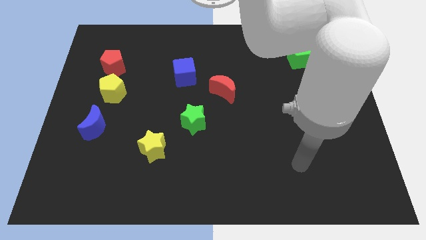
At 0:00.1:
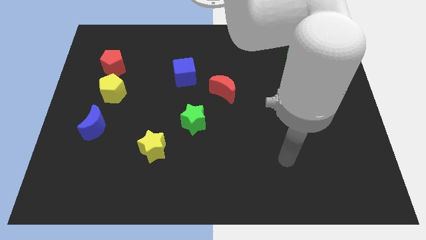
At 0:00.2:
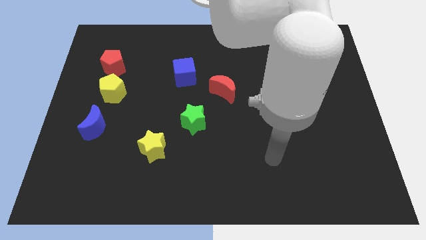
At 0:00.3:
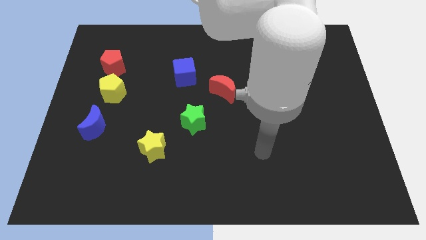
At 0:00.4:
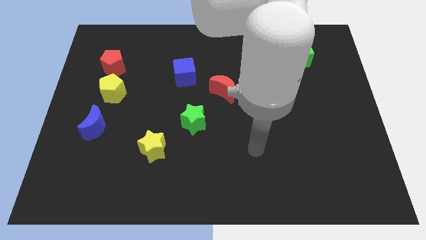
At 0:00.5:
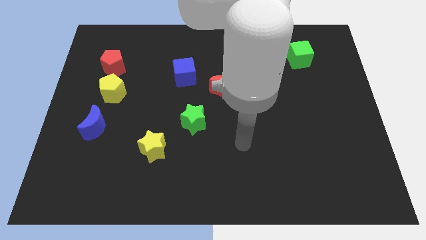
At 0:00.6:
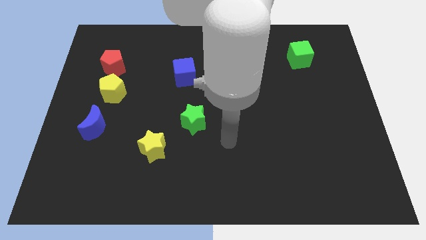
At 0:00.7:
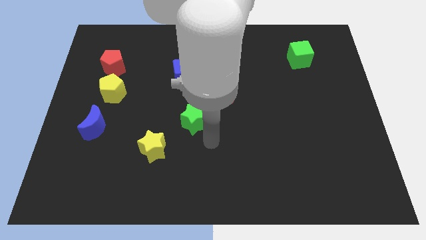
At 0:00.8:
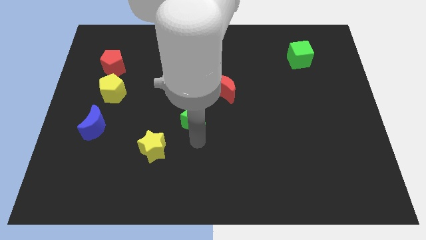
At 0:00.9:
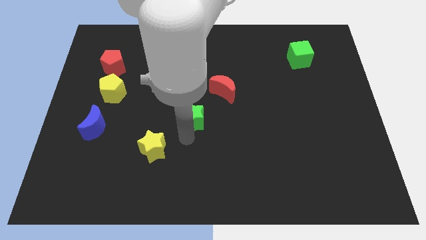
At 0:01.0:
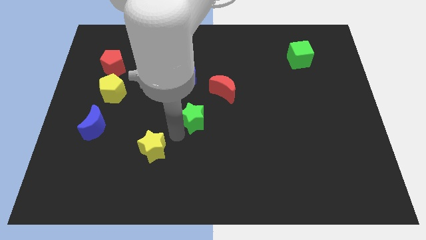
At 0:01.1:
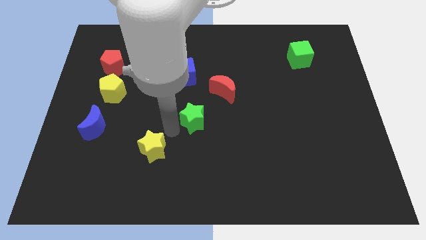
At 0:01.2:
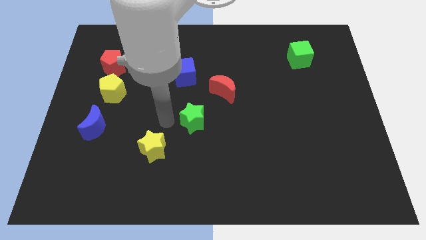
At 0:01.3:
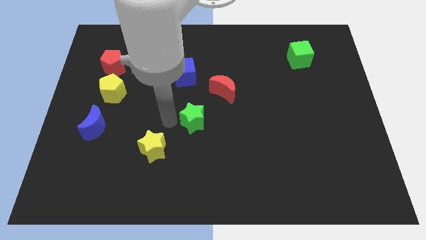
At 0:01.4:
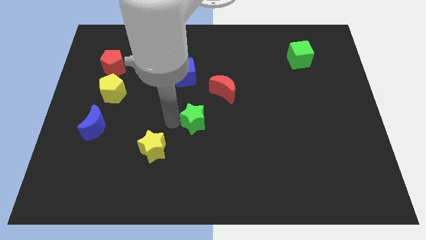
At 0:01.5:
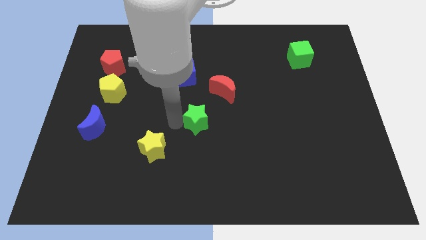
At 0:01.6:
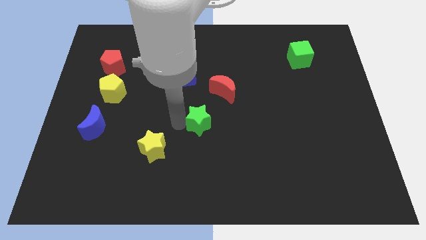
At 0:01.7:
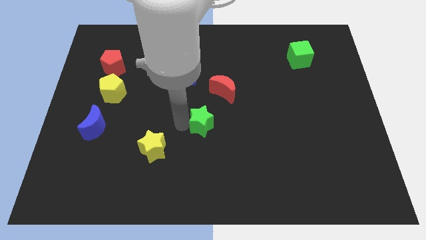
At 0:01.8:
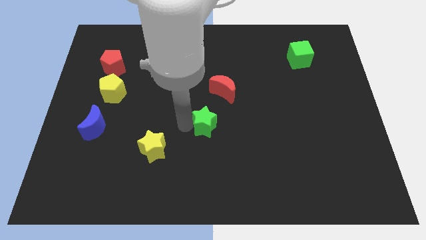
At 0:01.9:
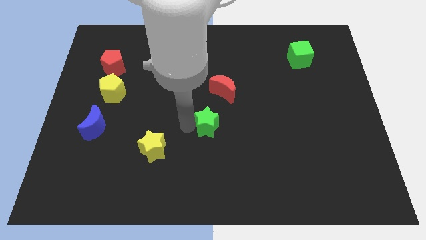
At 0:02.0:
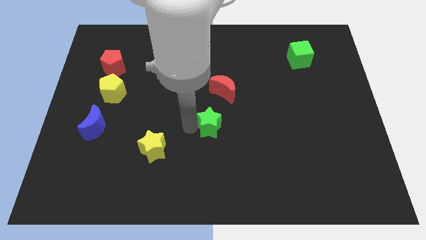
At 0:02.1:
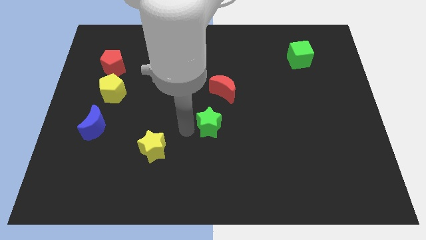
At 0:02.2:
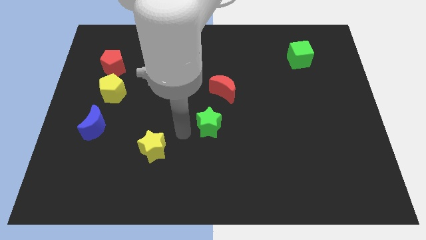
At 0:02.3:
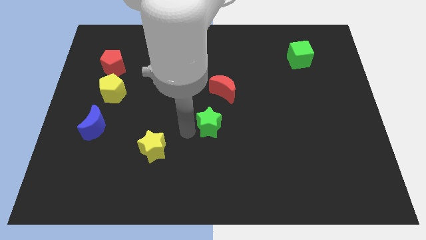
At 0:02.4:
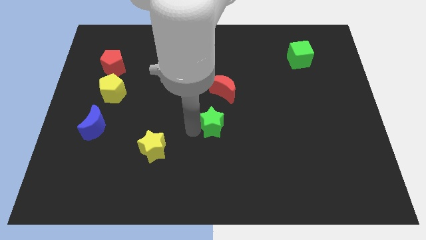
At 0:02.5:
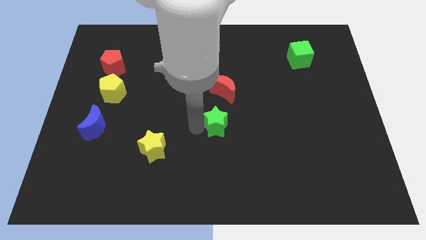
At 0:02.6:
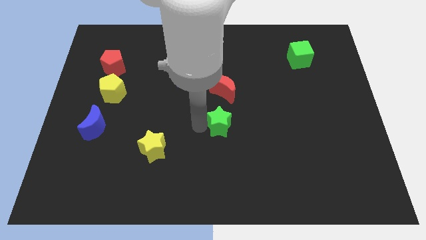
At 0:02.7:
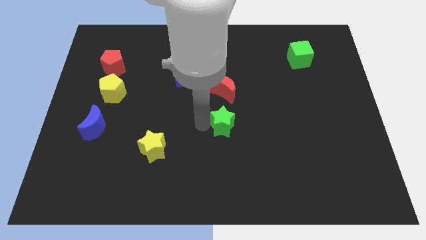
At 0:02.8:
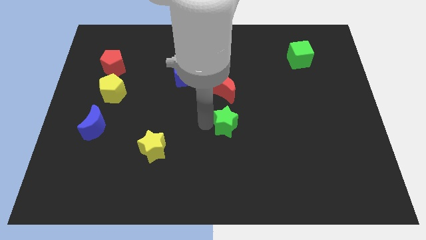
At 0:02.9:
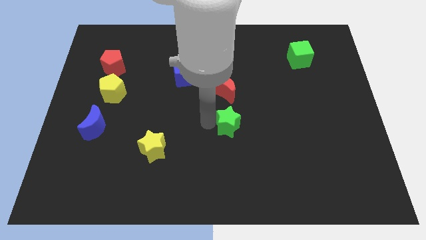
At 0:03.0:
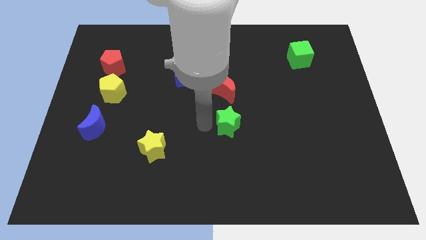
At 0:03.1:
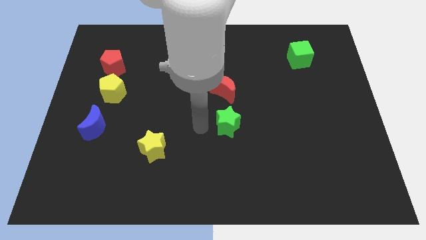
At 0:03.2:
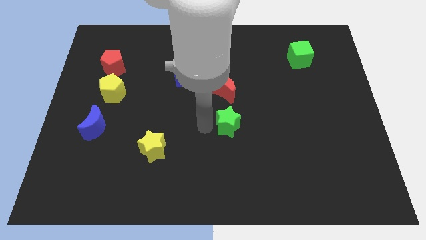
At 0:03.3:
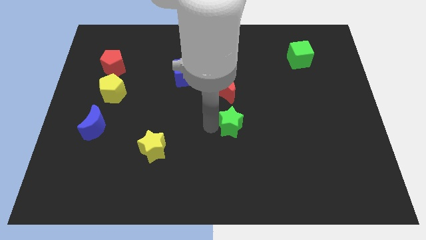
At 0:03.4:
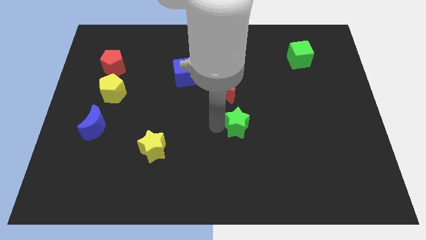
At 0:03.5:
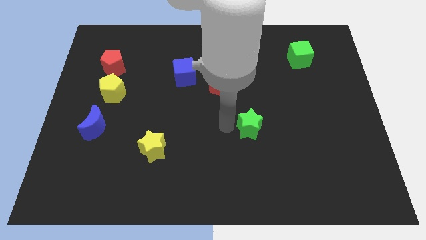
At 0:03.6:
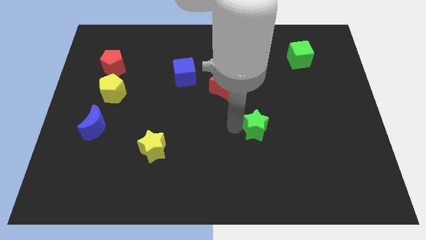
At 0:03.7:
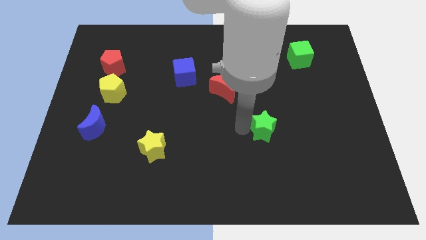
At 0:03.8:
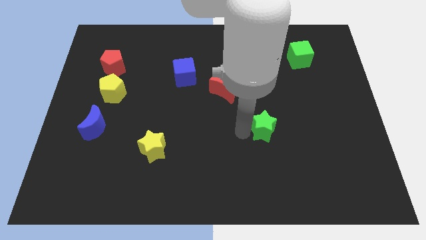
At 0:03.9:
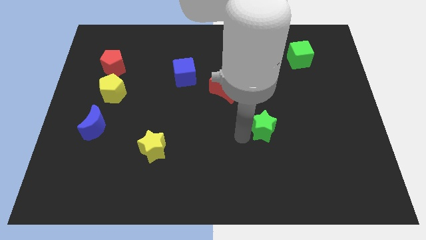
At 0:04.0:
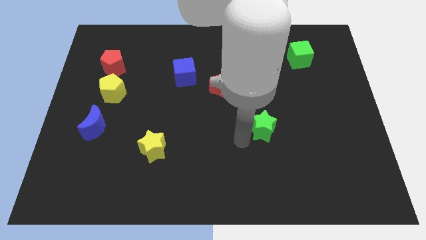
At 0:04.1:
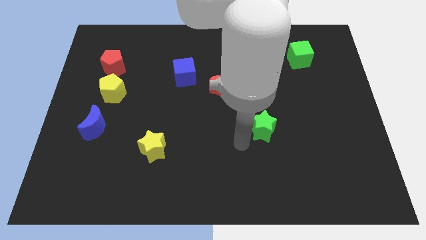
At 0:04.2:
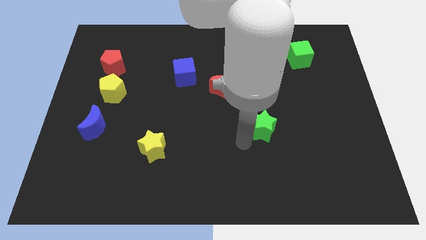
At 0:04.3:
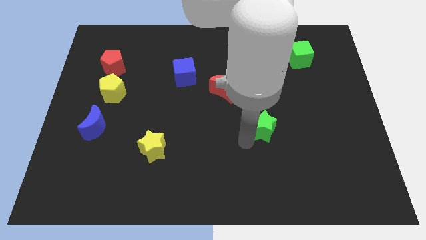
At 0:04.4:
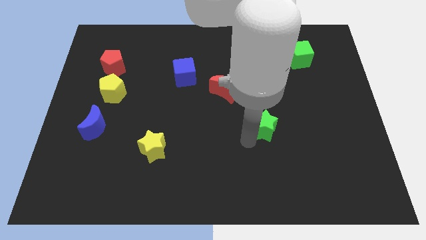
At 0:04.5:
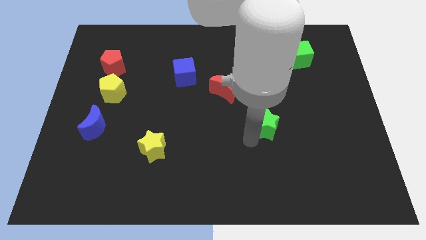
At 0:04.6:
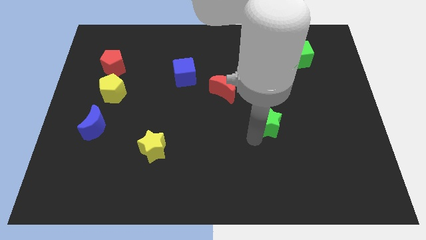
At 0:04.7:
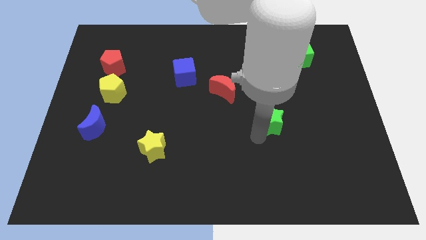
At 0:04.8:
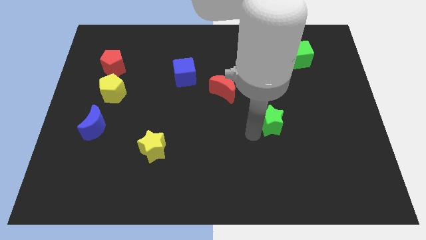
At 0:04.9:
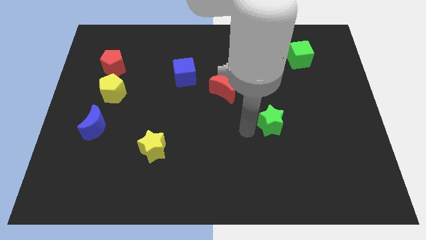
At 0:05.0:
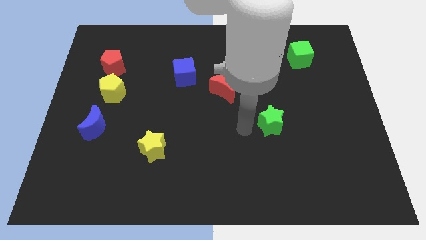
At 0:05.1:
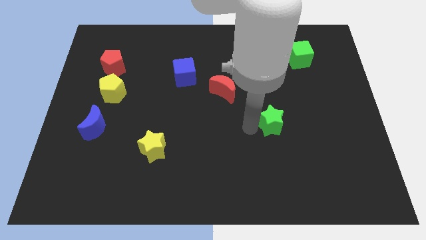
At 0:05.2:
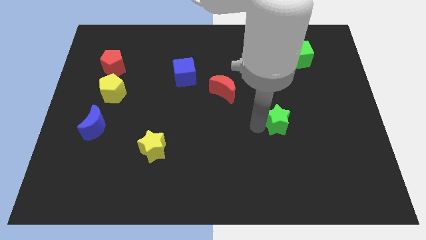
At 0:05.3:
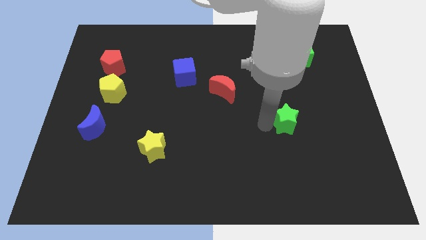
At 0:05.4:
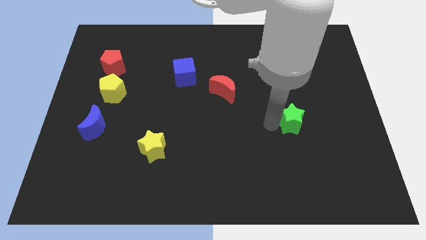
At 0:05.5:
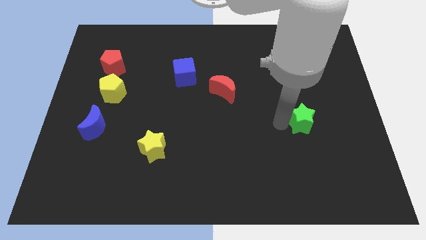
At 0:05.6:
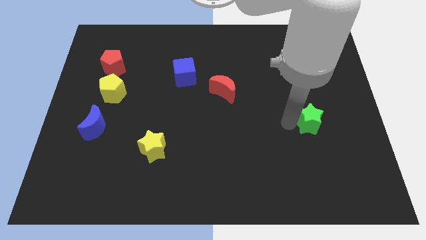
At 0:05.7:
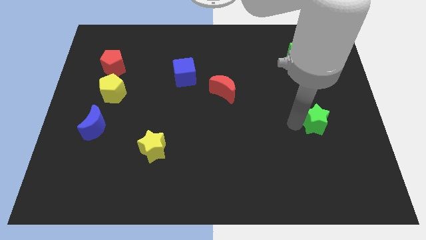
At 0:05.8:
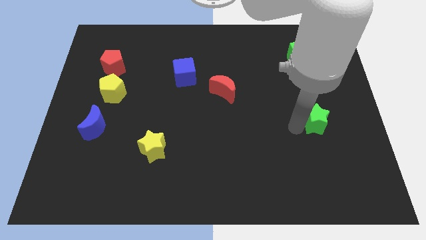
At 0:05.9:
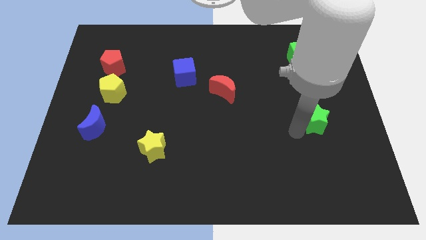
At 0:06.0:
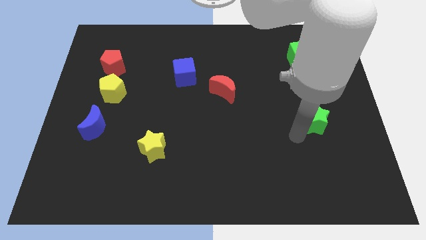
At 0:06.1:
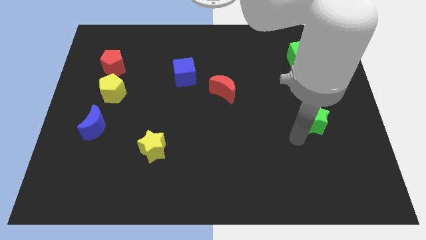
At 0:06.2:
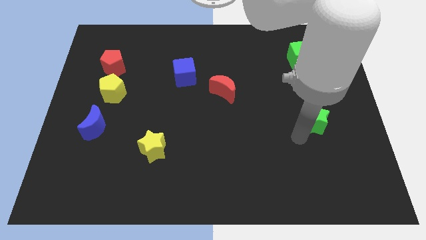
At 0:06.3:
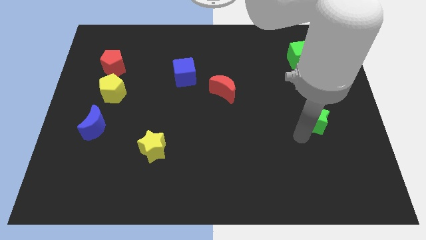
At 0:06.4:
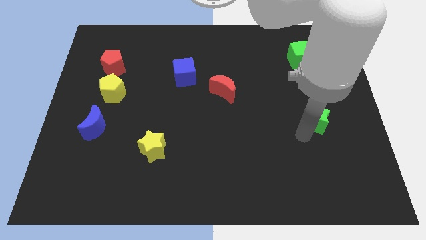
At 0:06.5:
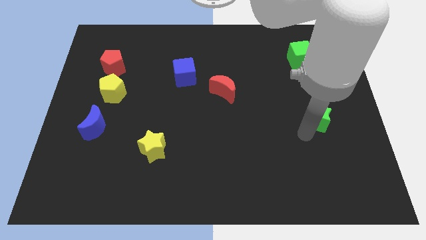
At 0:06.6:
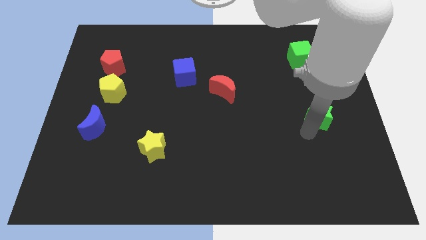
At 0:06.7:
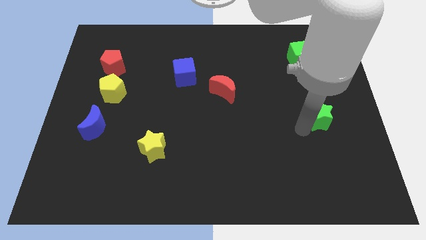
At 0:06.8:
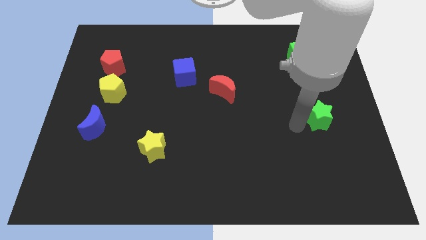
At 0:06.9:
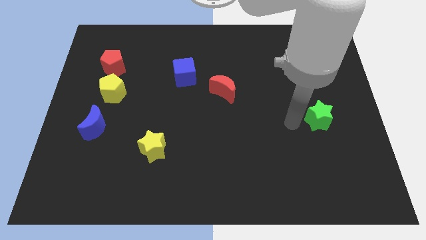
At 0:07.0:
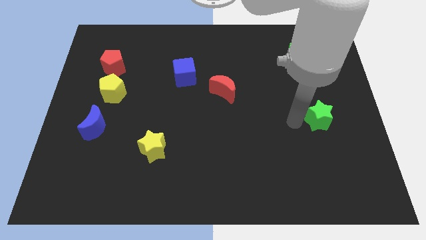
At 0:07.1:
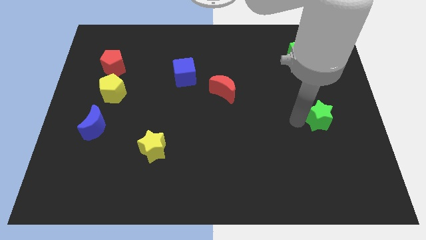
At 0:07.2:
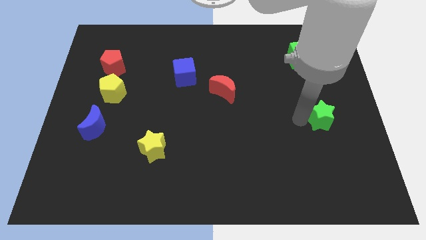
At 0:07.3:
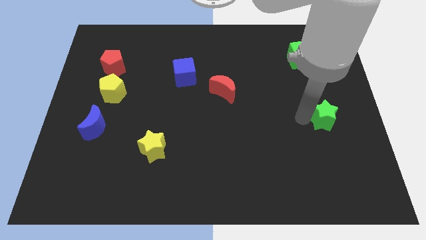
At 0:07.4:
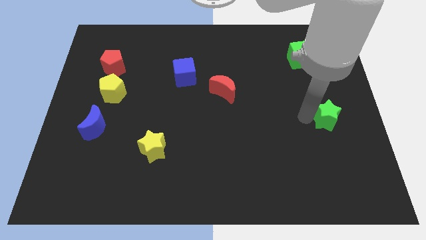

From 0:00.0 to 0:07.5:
push the green star to the right side
